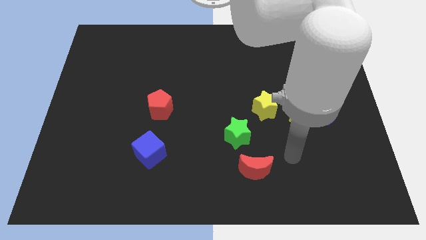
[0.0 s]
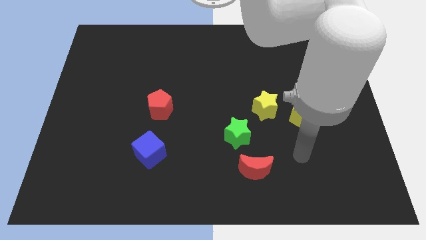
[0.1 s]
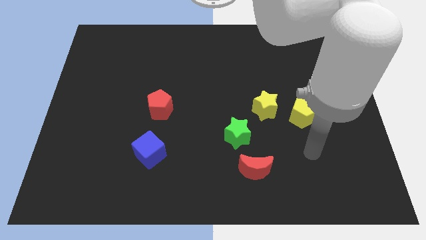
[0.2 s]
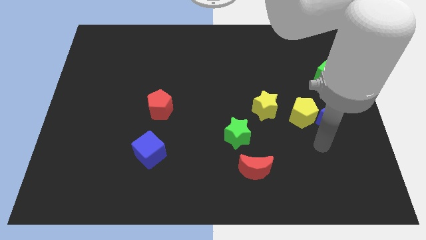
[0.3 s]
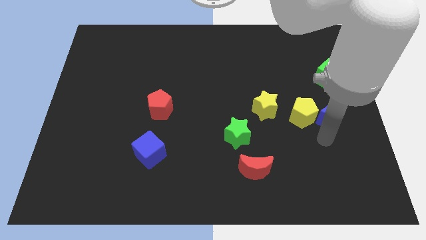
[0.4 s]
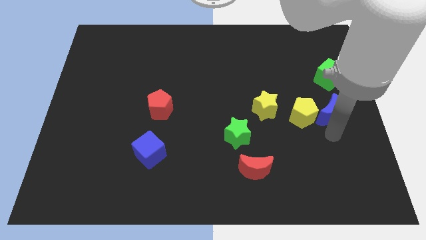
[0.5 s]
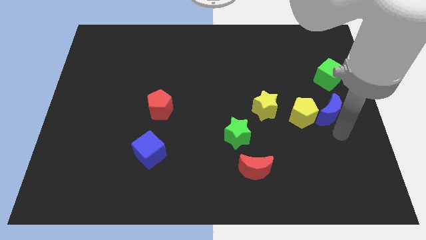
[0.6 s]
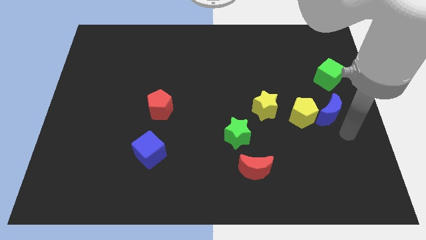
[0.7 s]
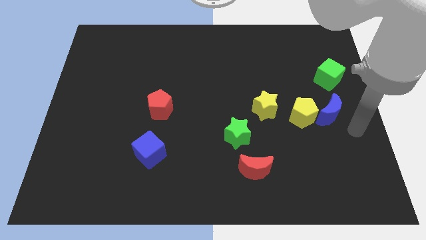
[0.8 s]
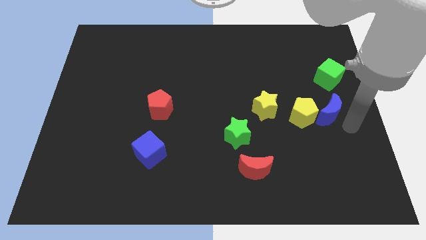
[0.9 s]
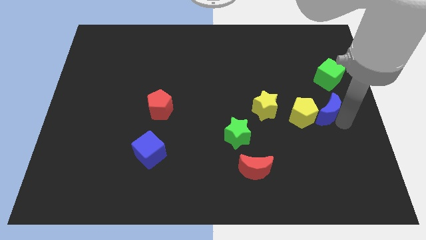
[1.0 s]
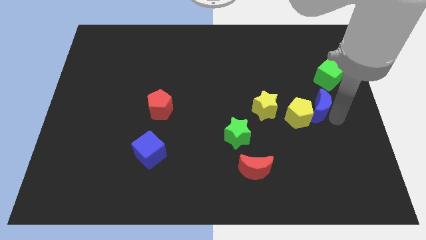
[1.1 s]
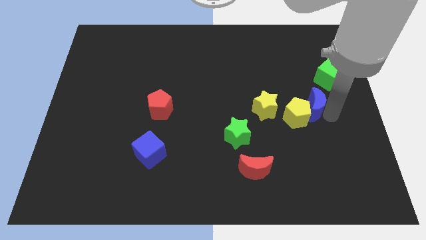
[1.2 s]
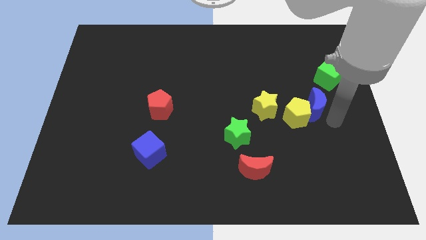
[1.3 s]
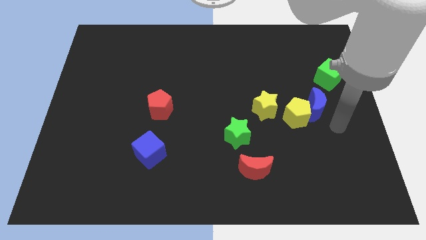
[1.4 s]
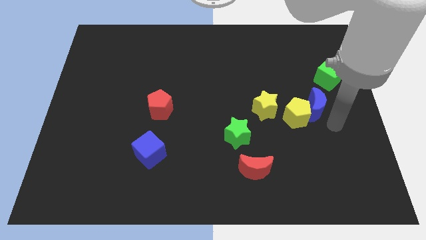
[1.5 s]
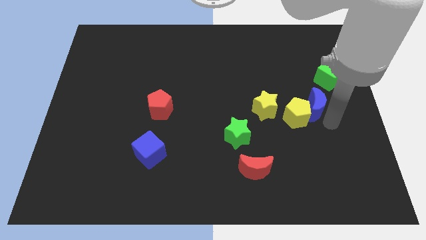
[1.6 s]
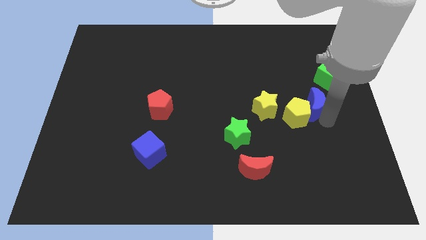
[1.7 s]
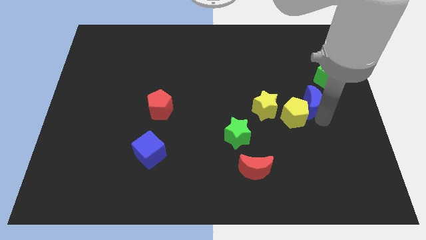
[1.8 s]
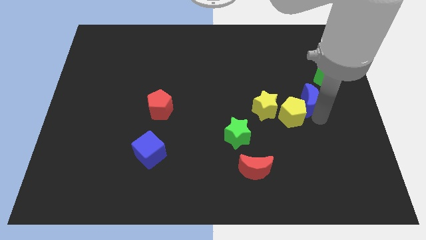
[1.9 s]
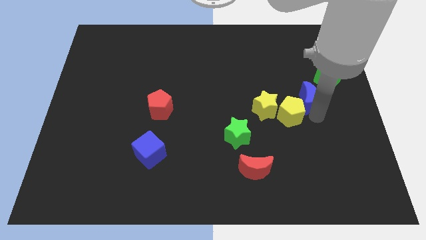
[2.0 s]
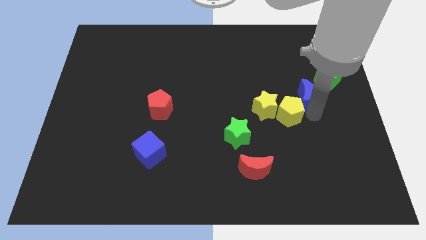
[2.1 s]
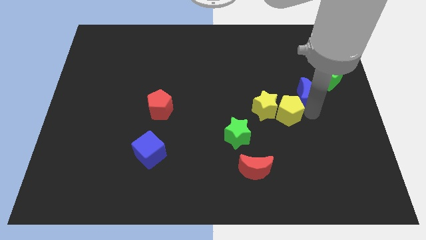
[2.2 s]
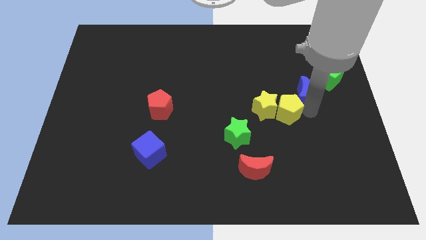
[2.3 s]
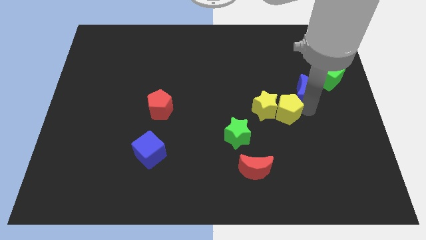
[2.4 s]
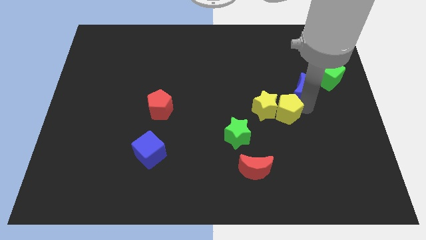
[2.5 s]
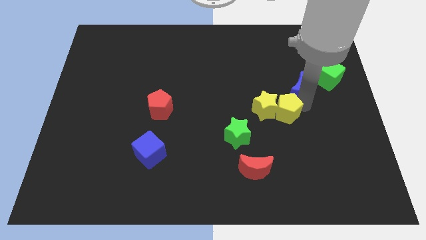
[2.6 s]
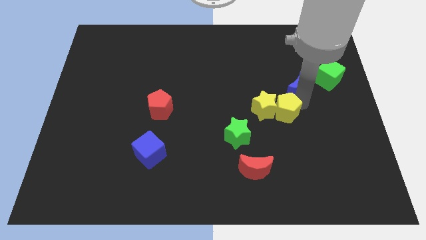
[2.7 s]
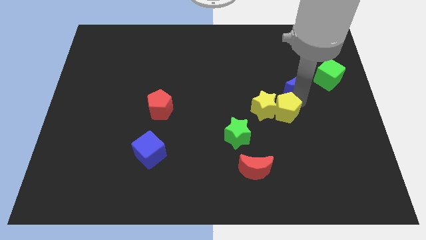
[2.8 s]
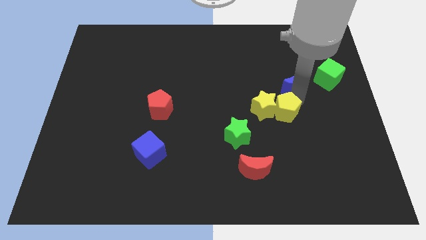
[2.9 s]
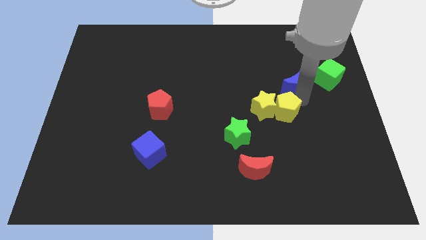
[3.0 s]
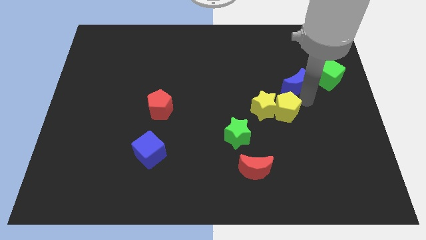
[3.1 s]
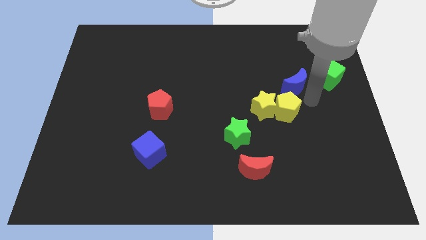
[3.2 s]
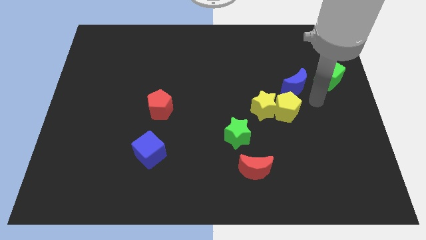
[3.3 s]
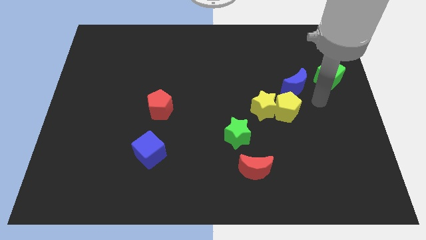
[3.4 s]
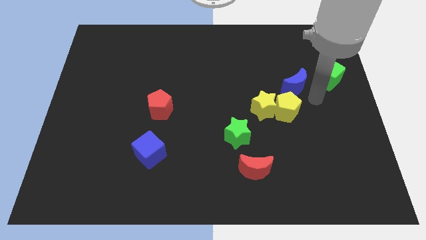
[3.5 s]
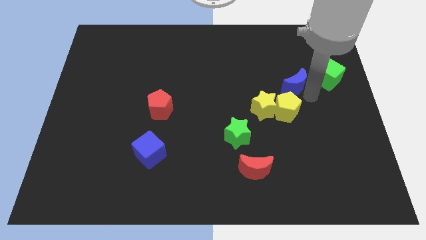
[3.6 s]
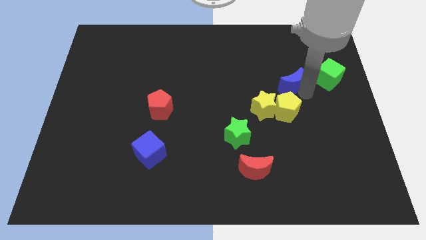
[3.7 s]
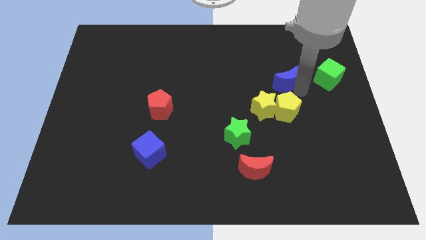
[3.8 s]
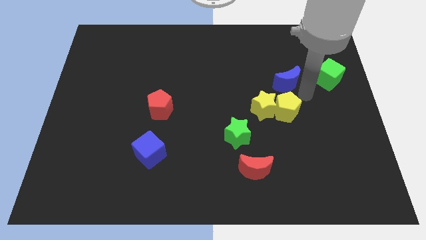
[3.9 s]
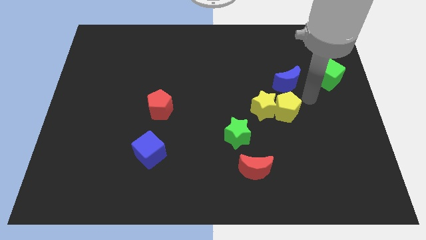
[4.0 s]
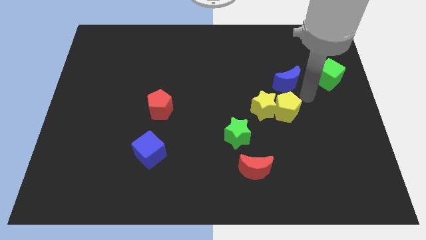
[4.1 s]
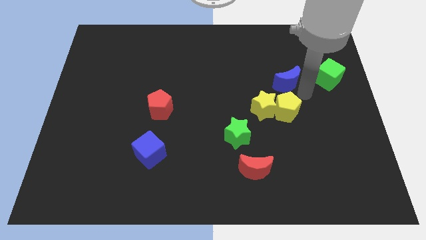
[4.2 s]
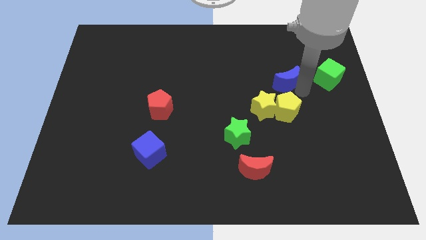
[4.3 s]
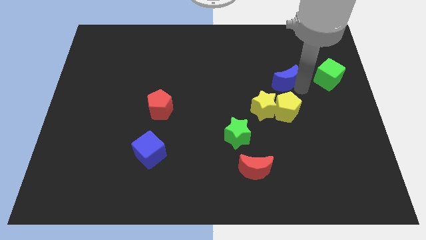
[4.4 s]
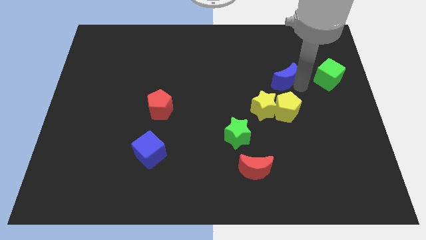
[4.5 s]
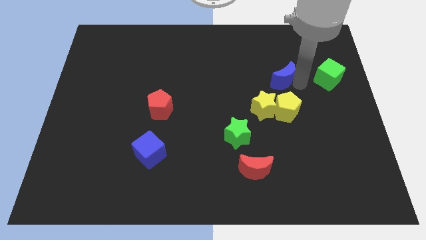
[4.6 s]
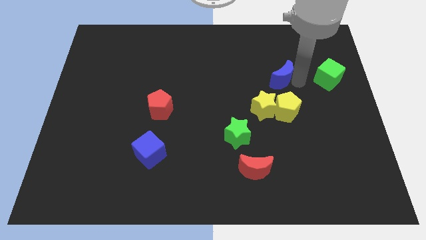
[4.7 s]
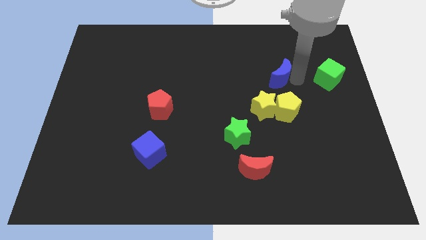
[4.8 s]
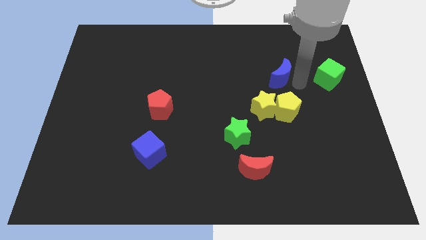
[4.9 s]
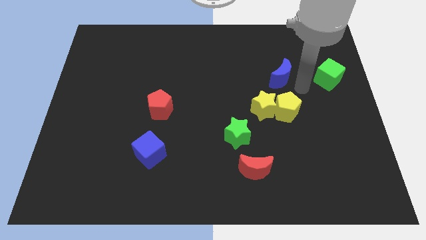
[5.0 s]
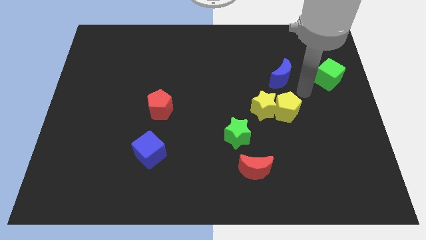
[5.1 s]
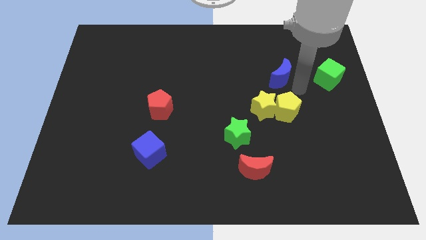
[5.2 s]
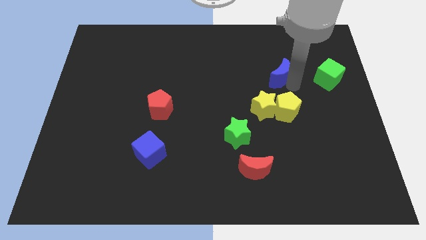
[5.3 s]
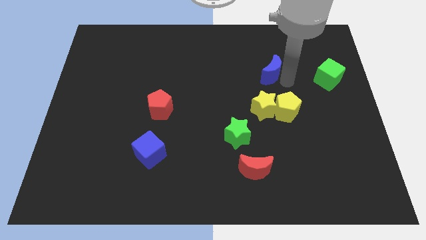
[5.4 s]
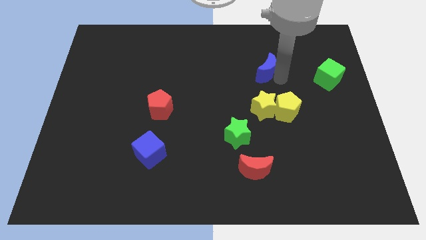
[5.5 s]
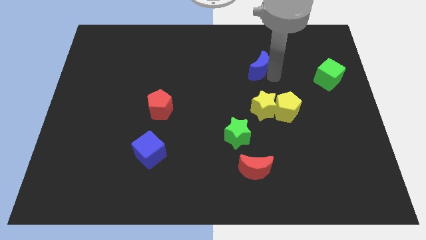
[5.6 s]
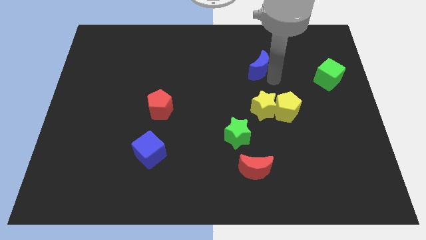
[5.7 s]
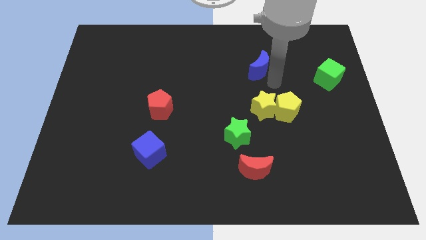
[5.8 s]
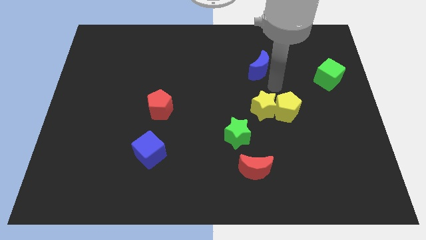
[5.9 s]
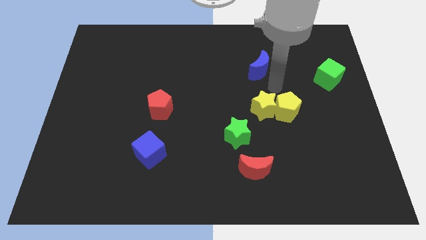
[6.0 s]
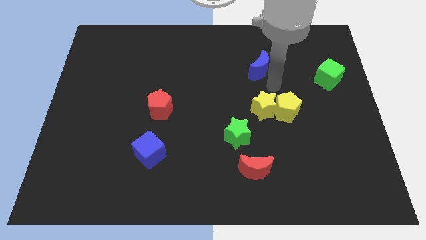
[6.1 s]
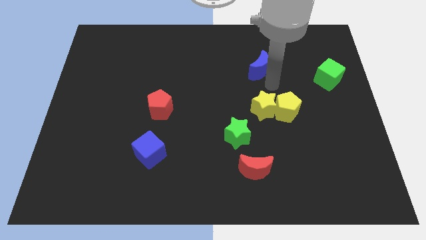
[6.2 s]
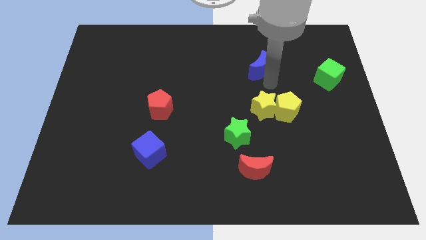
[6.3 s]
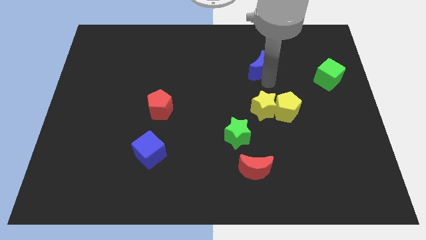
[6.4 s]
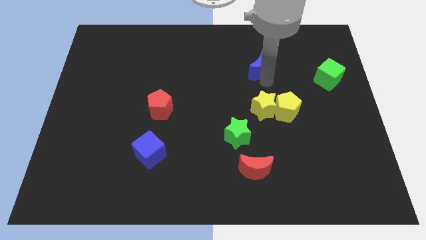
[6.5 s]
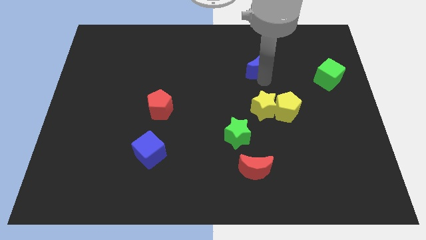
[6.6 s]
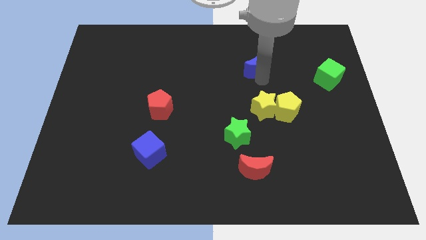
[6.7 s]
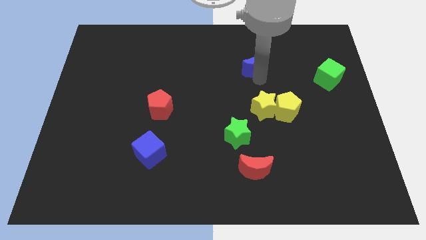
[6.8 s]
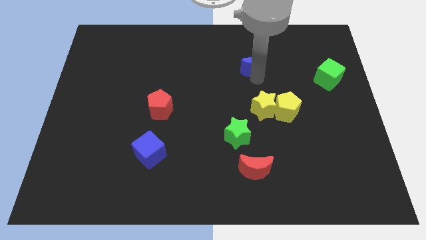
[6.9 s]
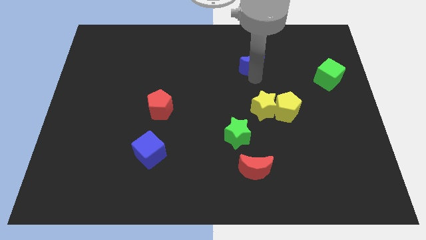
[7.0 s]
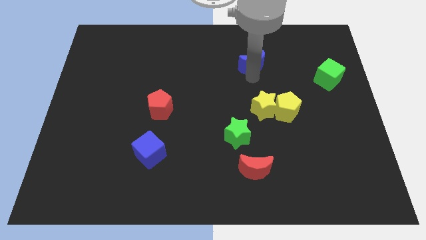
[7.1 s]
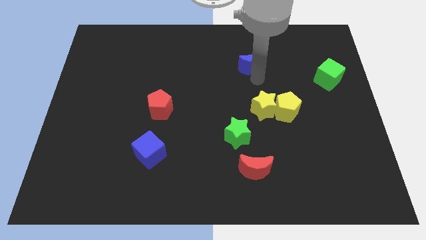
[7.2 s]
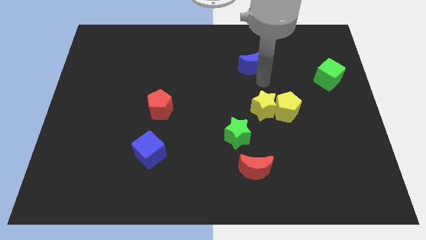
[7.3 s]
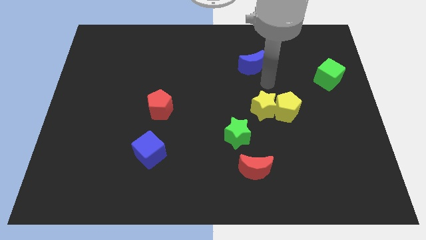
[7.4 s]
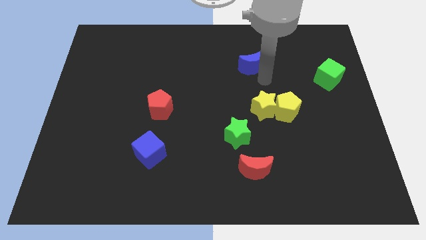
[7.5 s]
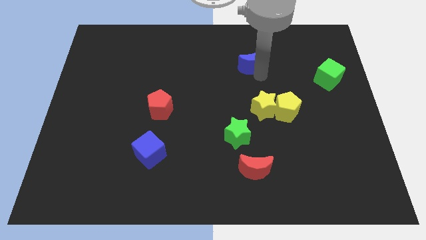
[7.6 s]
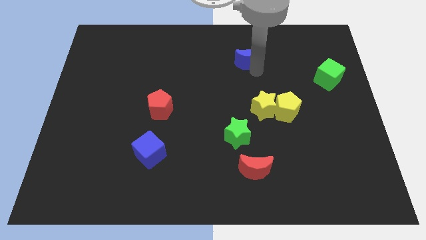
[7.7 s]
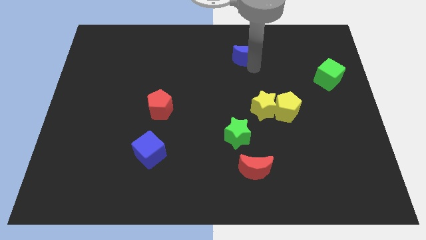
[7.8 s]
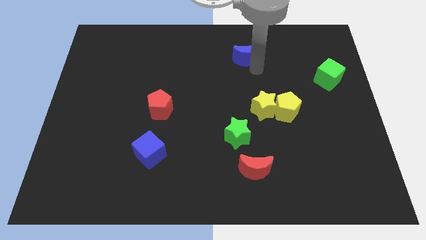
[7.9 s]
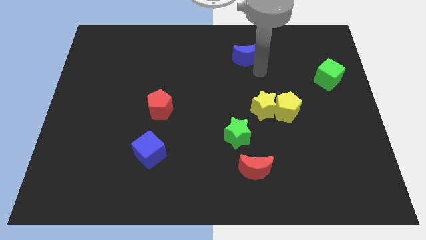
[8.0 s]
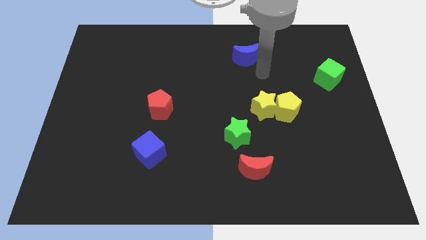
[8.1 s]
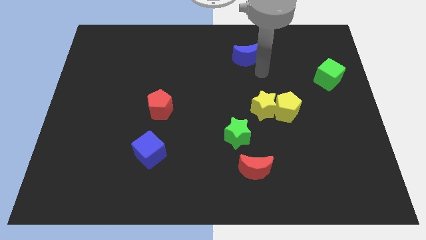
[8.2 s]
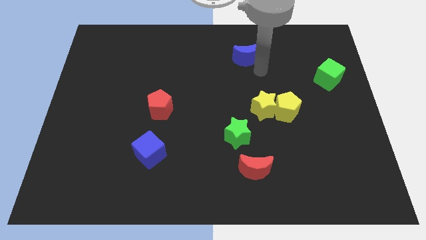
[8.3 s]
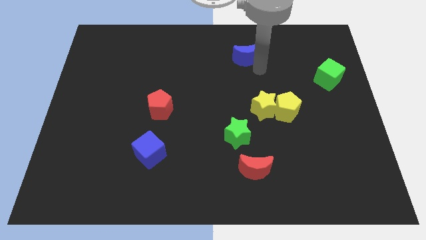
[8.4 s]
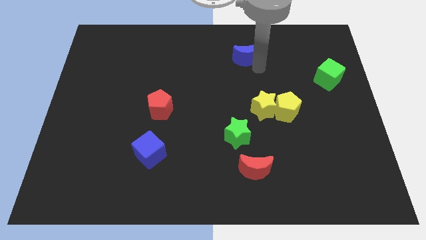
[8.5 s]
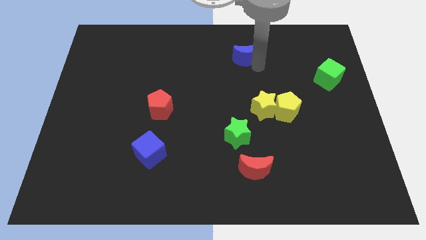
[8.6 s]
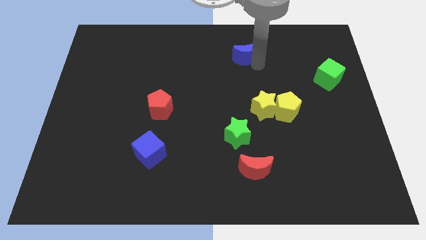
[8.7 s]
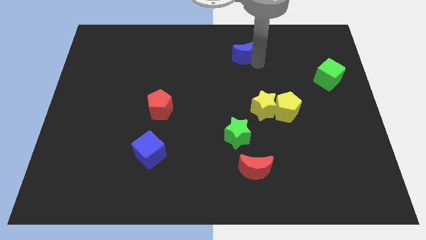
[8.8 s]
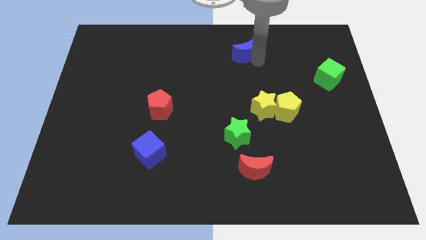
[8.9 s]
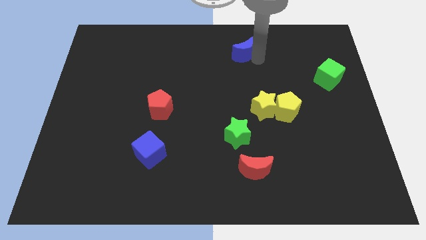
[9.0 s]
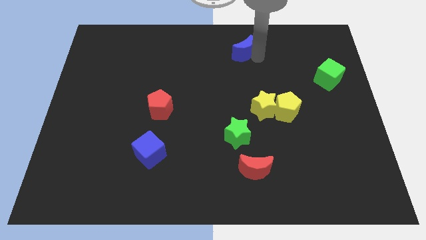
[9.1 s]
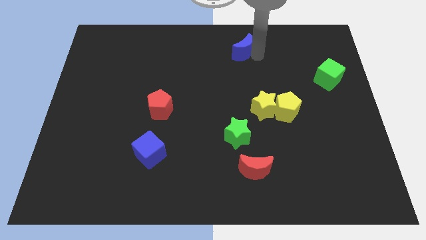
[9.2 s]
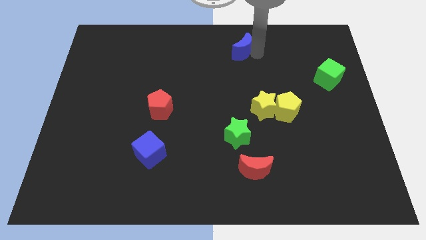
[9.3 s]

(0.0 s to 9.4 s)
push the blue moon to the towards your base
